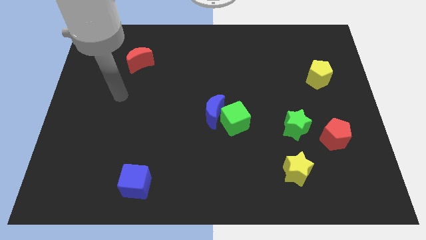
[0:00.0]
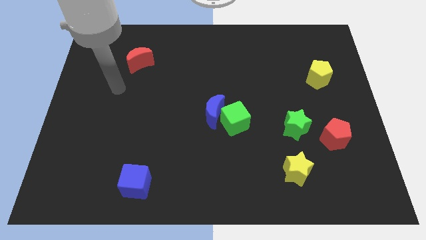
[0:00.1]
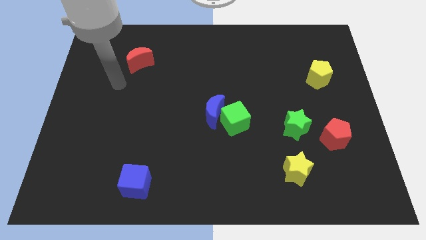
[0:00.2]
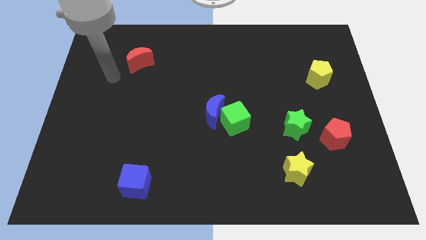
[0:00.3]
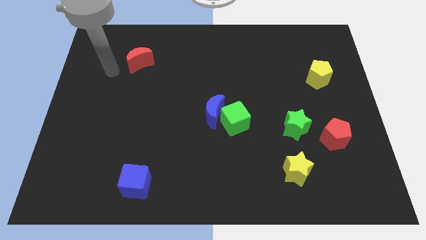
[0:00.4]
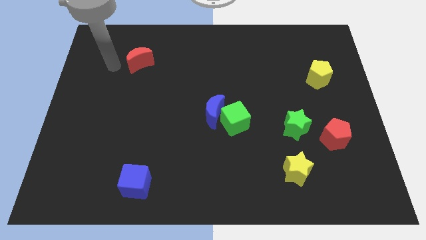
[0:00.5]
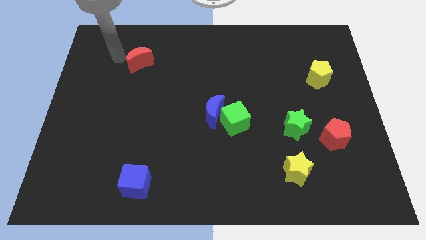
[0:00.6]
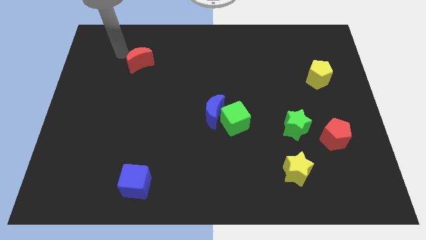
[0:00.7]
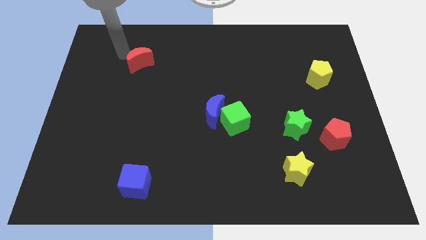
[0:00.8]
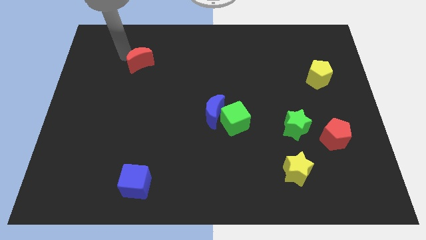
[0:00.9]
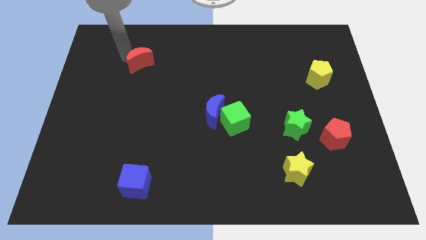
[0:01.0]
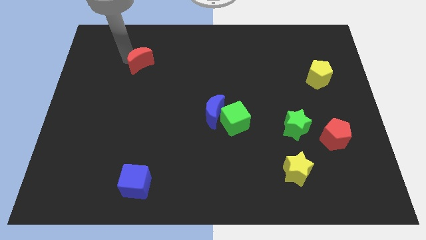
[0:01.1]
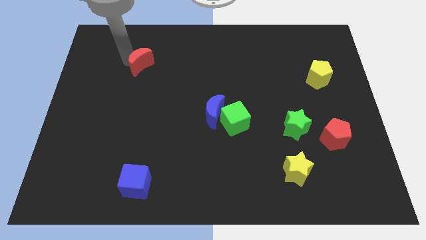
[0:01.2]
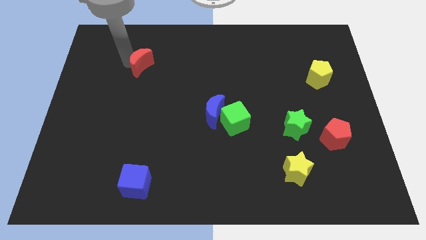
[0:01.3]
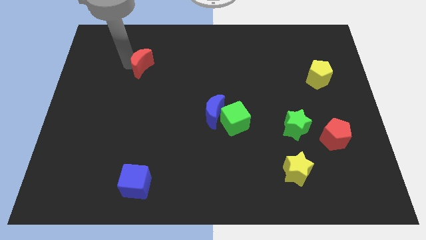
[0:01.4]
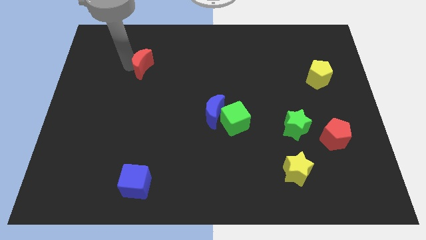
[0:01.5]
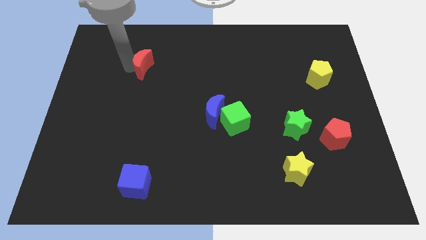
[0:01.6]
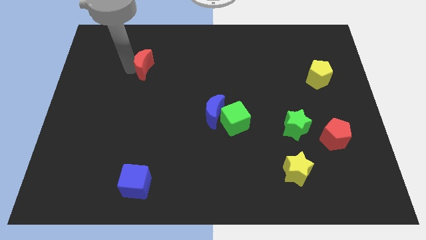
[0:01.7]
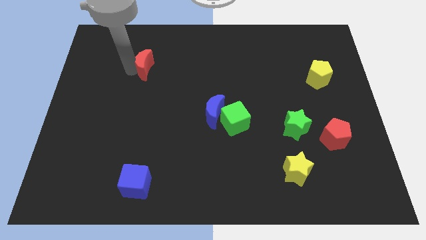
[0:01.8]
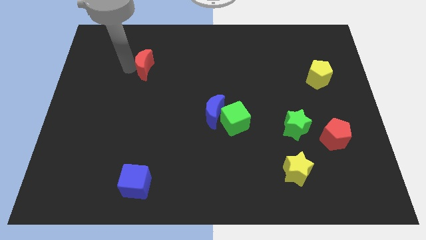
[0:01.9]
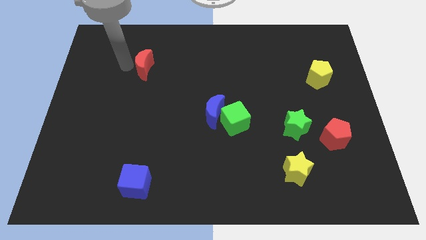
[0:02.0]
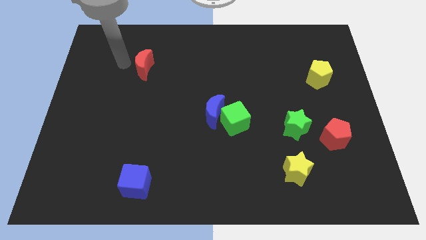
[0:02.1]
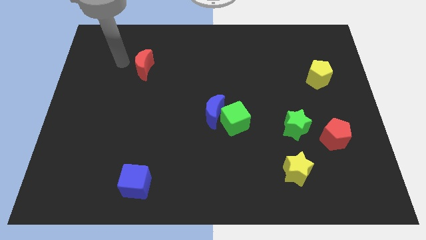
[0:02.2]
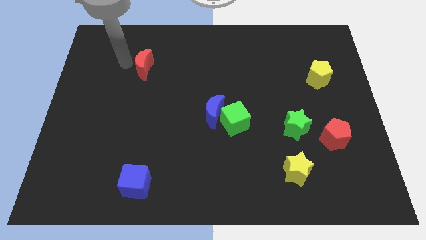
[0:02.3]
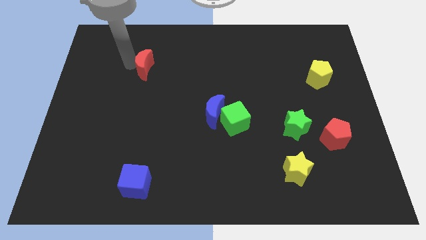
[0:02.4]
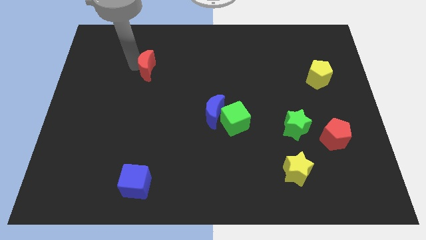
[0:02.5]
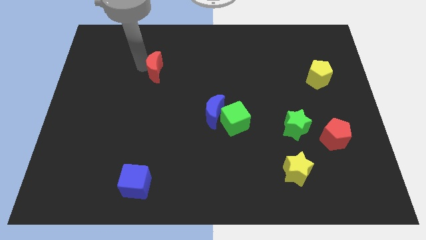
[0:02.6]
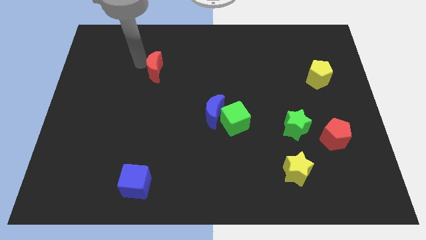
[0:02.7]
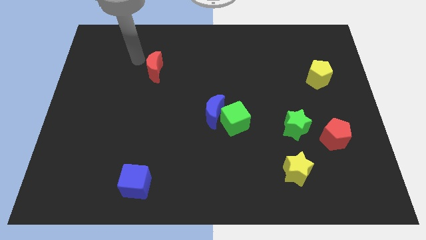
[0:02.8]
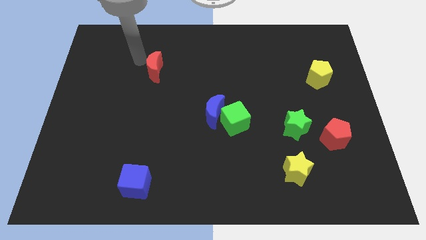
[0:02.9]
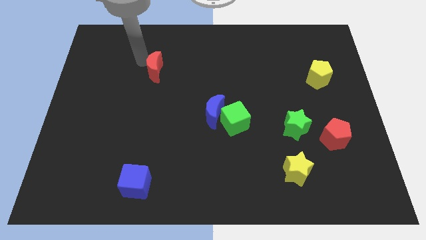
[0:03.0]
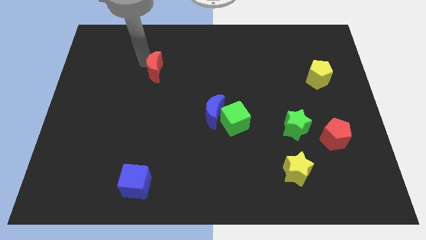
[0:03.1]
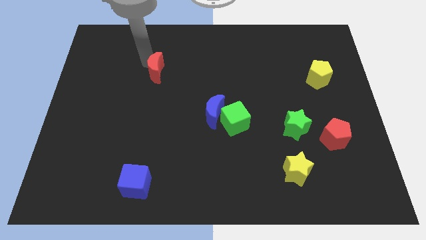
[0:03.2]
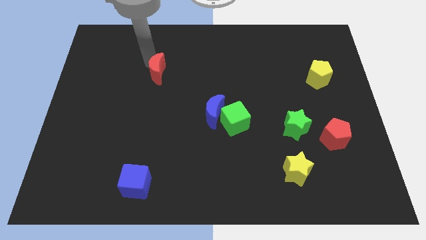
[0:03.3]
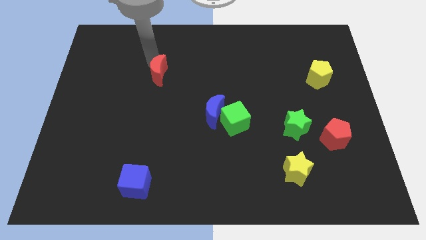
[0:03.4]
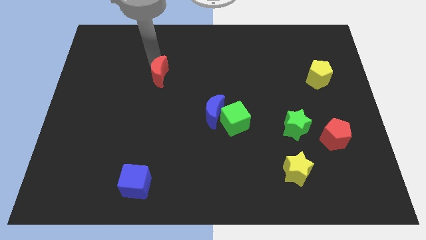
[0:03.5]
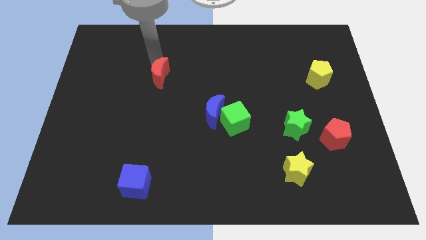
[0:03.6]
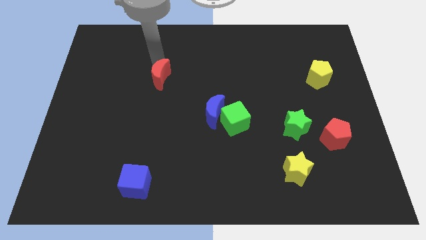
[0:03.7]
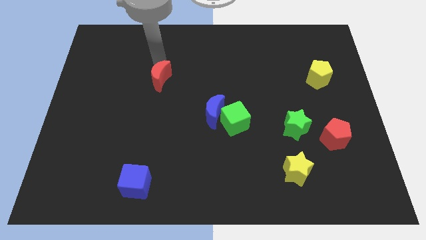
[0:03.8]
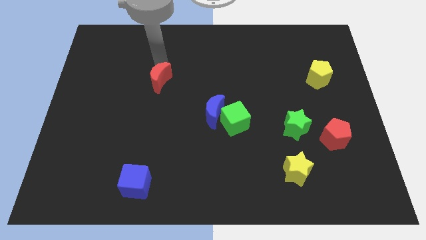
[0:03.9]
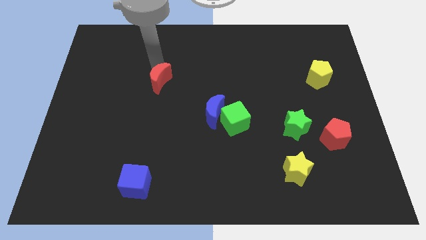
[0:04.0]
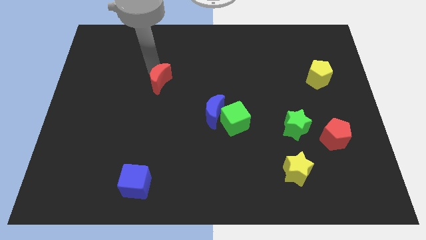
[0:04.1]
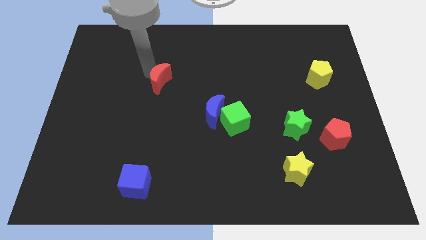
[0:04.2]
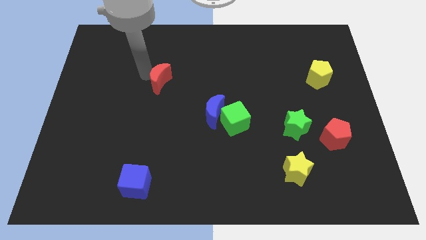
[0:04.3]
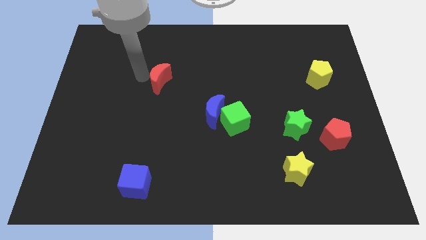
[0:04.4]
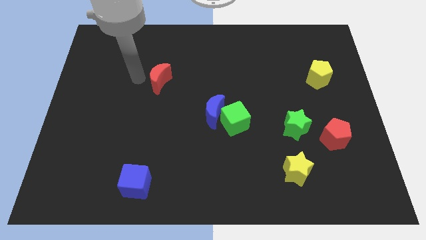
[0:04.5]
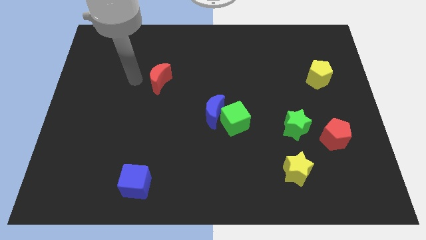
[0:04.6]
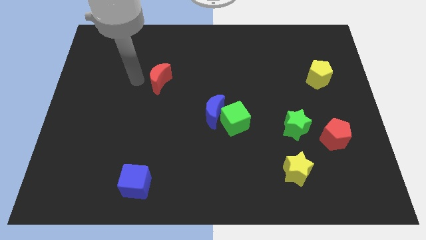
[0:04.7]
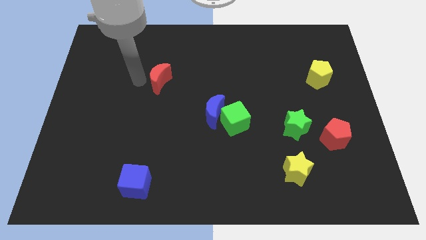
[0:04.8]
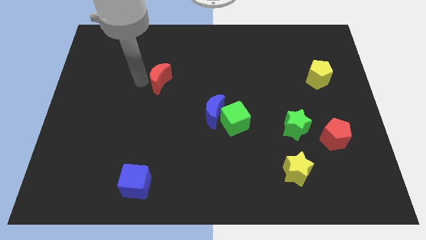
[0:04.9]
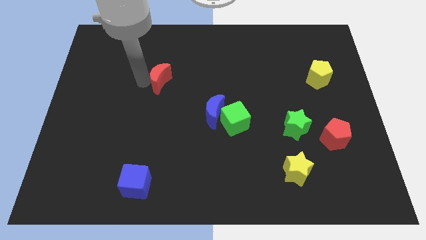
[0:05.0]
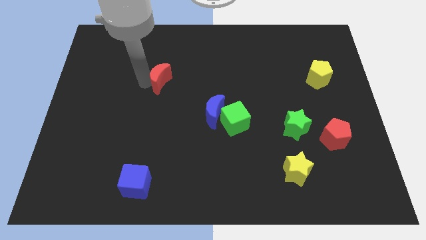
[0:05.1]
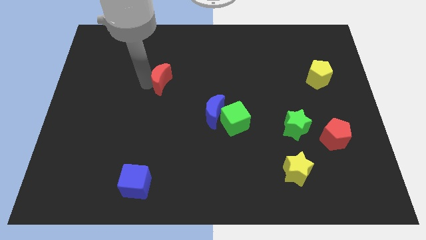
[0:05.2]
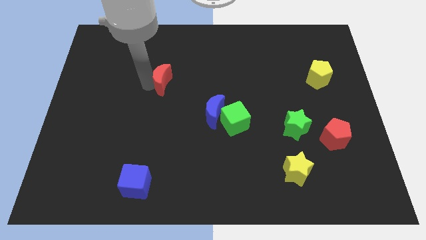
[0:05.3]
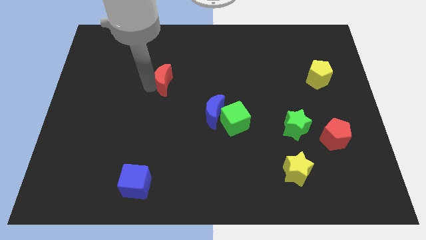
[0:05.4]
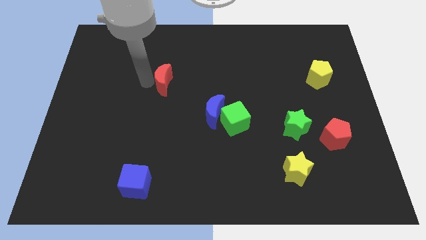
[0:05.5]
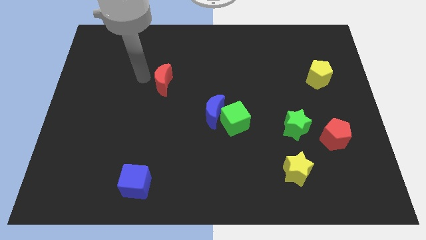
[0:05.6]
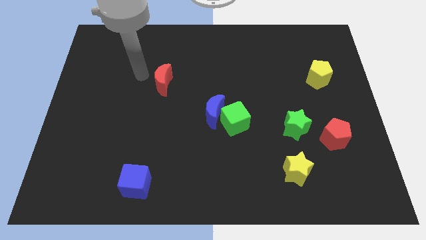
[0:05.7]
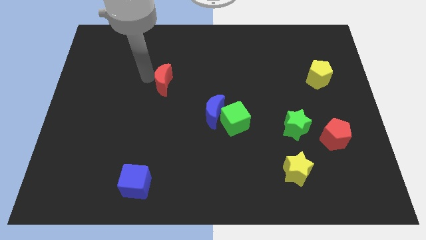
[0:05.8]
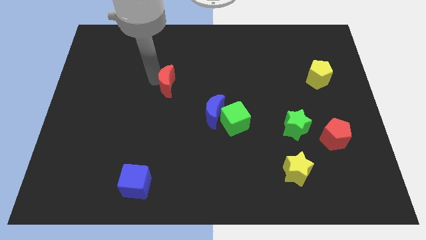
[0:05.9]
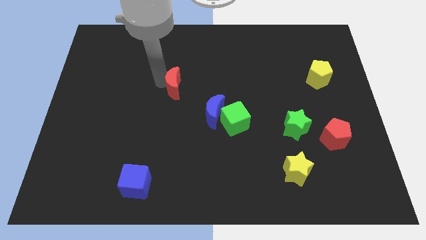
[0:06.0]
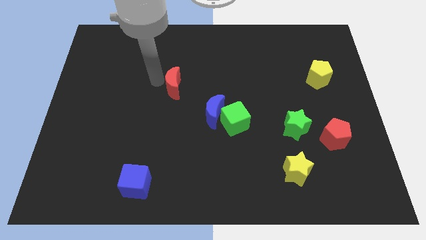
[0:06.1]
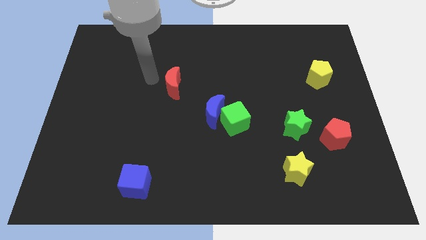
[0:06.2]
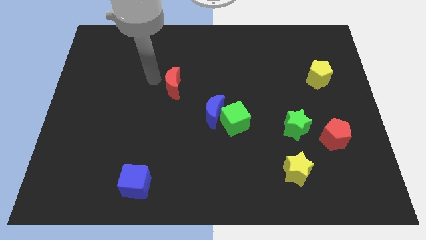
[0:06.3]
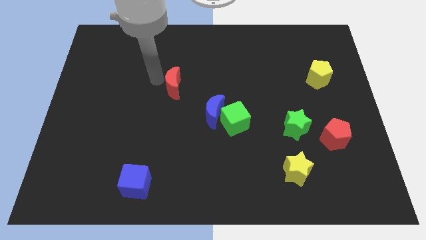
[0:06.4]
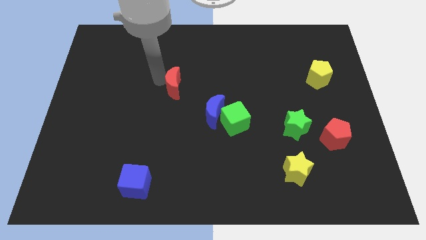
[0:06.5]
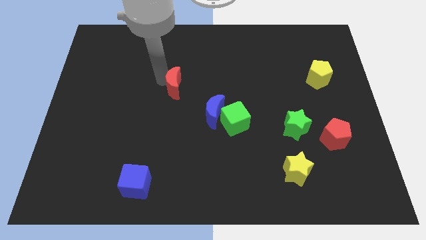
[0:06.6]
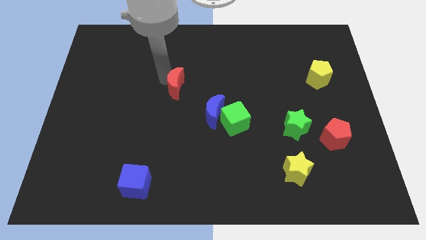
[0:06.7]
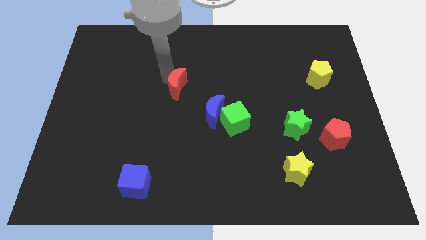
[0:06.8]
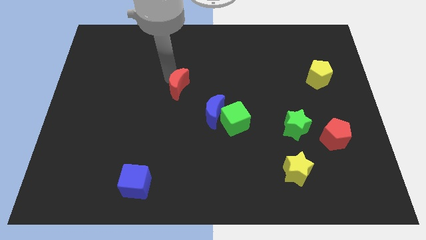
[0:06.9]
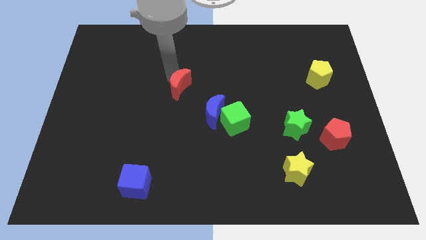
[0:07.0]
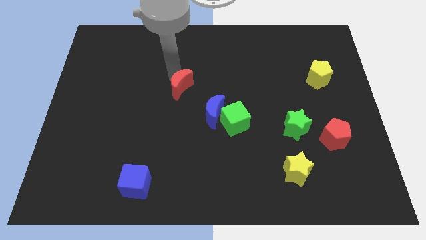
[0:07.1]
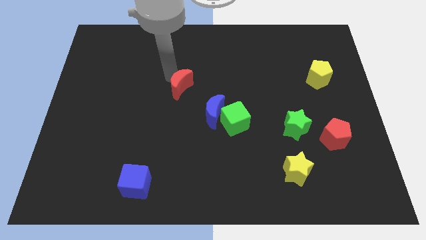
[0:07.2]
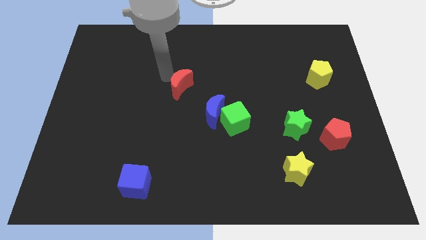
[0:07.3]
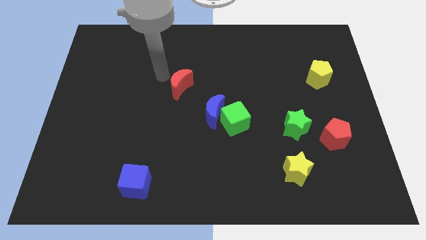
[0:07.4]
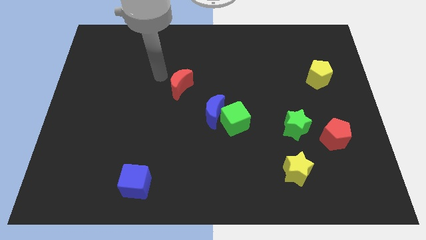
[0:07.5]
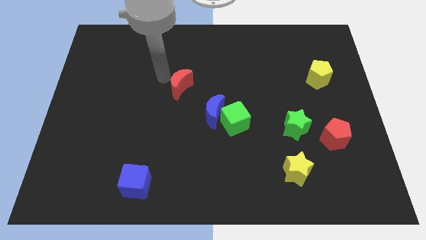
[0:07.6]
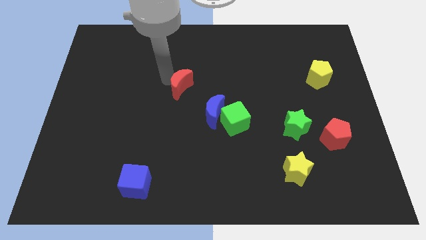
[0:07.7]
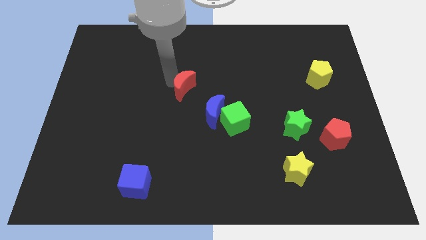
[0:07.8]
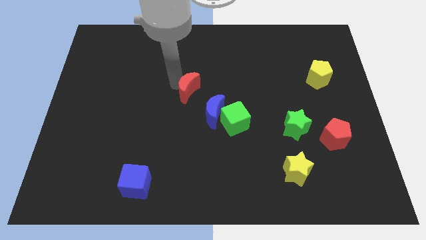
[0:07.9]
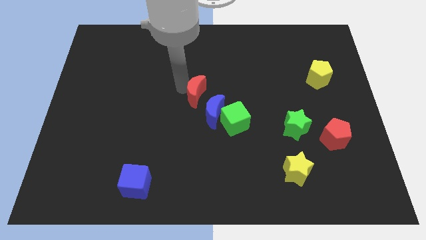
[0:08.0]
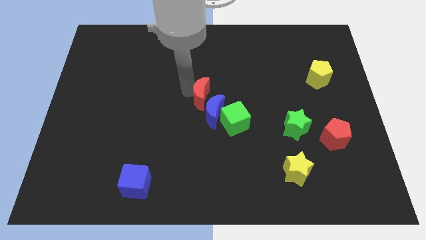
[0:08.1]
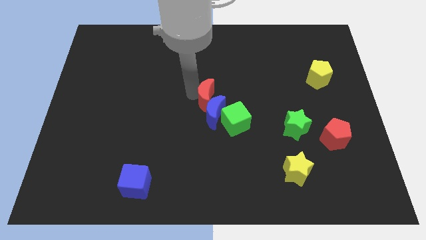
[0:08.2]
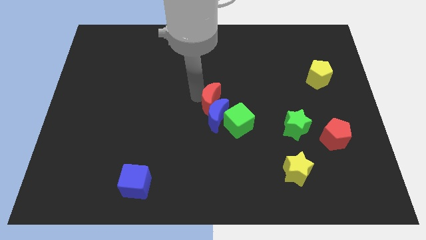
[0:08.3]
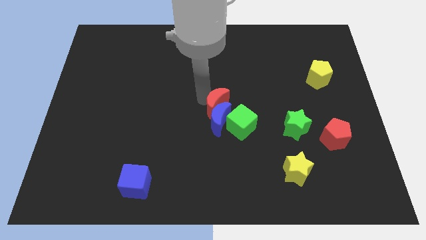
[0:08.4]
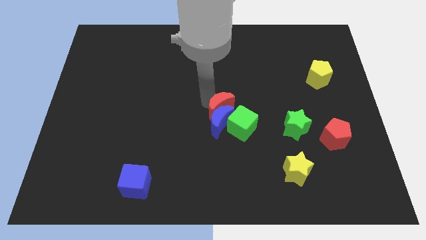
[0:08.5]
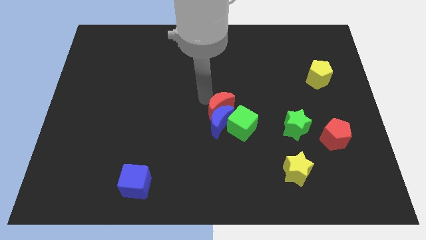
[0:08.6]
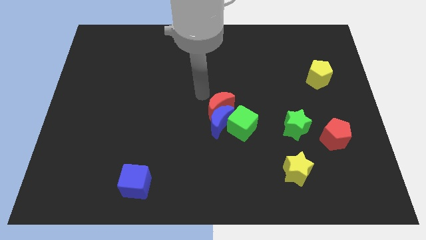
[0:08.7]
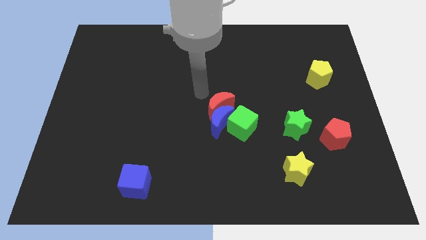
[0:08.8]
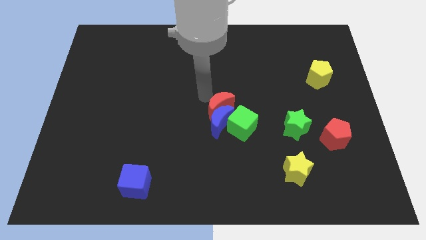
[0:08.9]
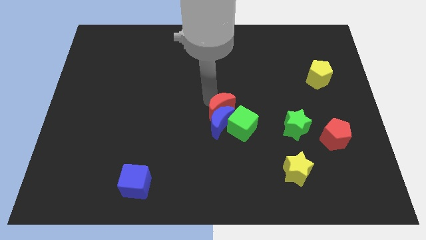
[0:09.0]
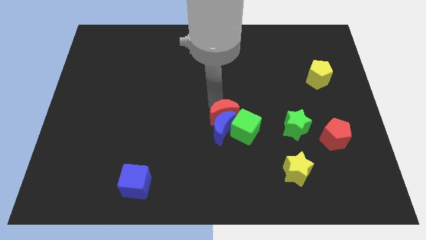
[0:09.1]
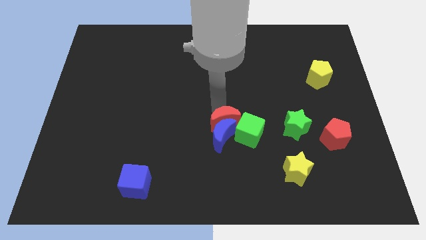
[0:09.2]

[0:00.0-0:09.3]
push the red moon towards the green cube
